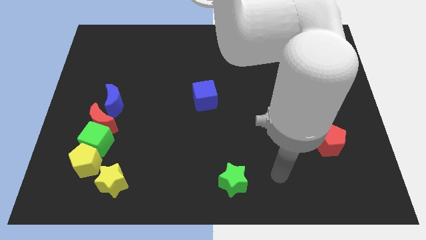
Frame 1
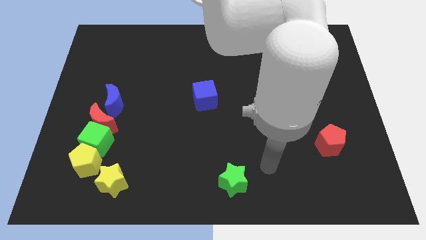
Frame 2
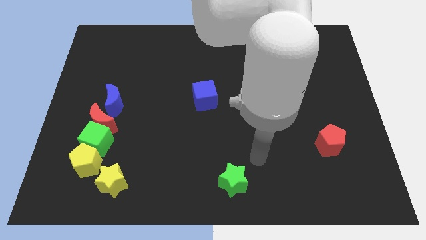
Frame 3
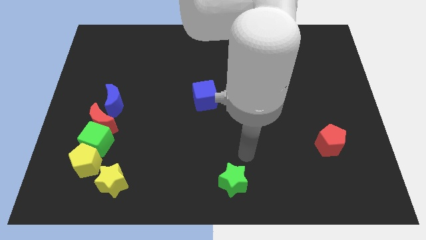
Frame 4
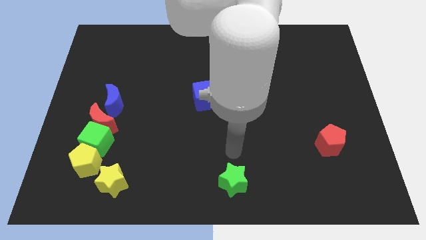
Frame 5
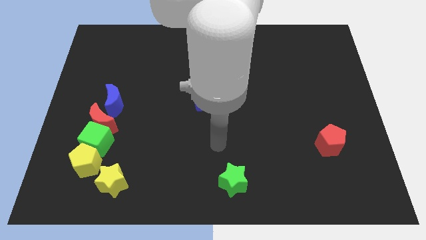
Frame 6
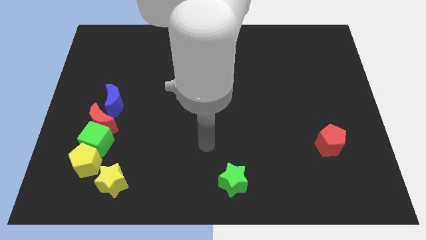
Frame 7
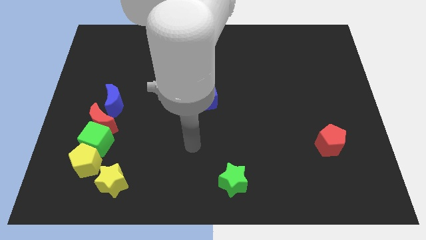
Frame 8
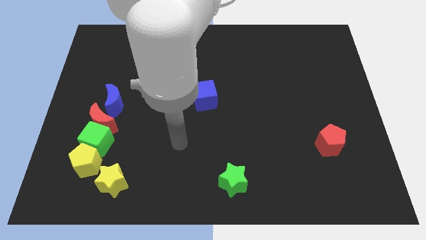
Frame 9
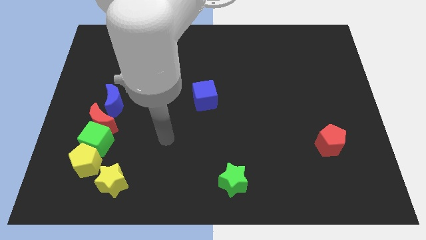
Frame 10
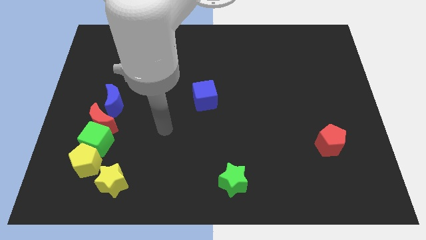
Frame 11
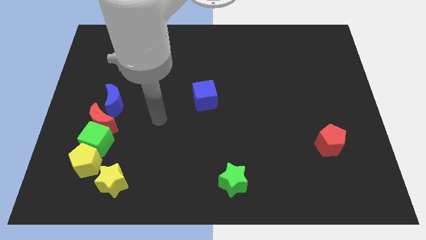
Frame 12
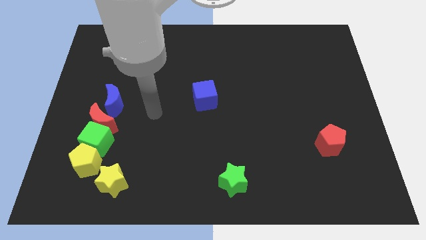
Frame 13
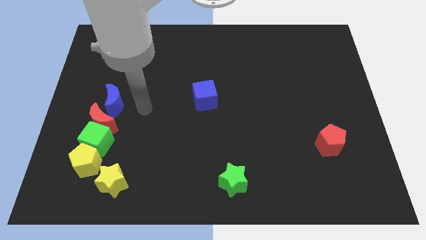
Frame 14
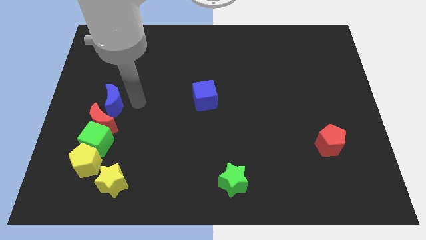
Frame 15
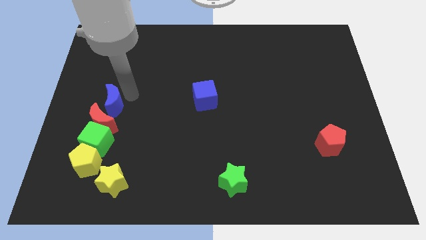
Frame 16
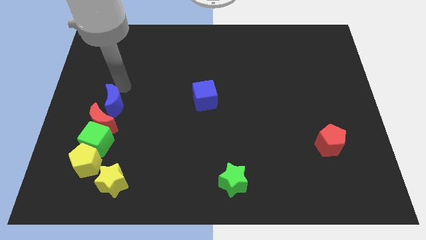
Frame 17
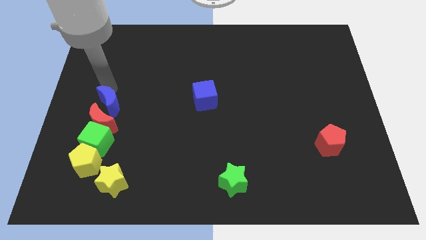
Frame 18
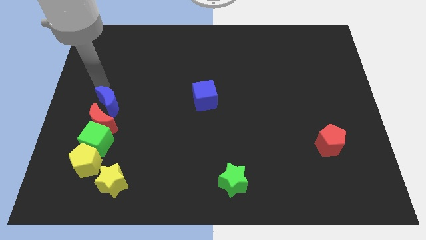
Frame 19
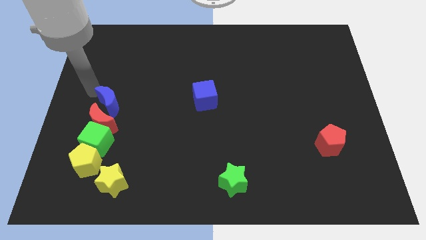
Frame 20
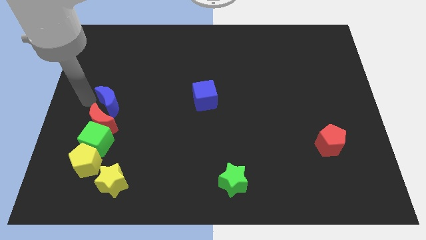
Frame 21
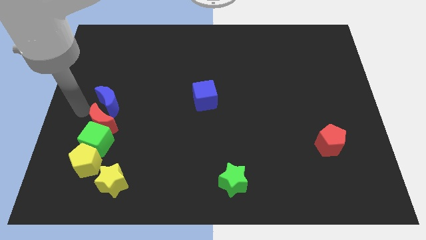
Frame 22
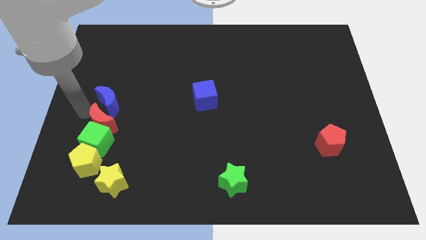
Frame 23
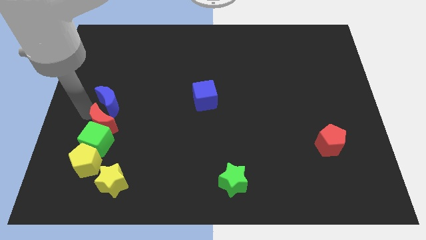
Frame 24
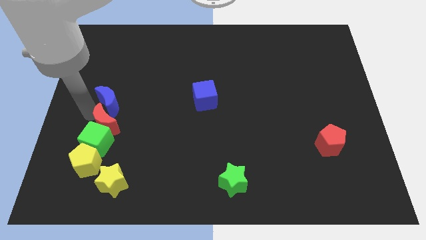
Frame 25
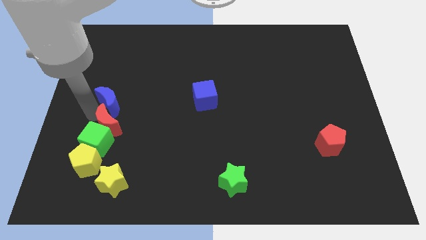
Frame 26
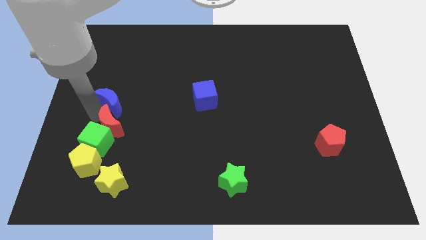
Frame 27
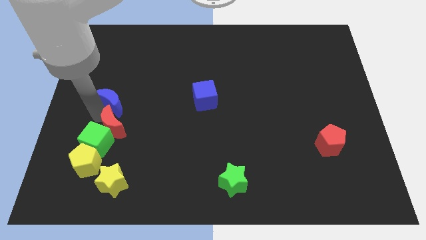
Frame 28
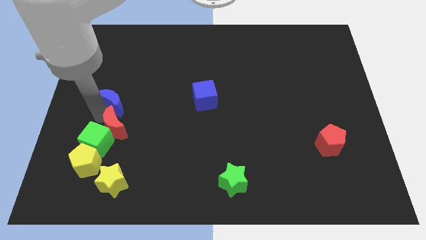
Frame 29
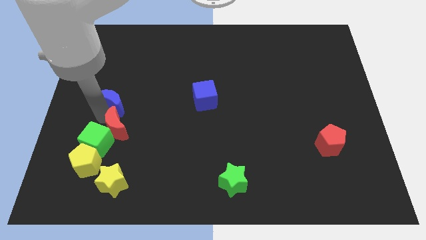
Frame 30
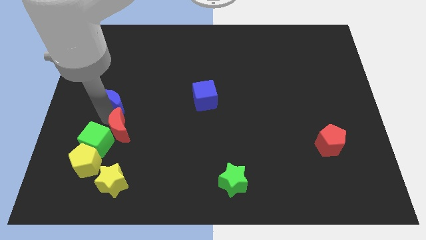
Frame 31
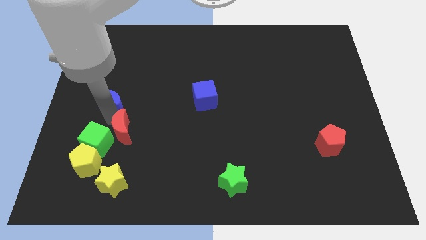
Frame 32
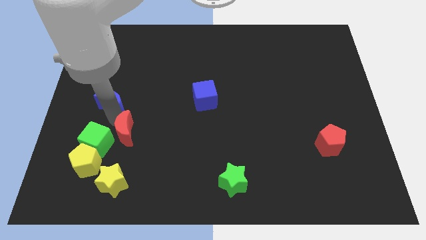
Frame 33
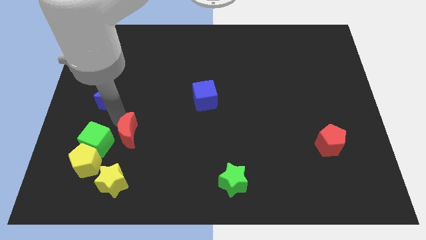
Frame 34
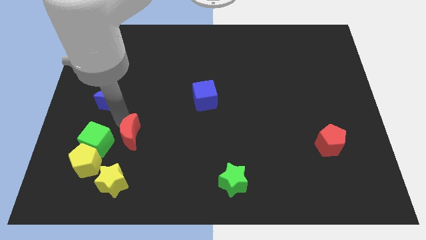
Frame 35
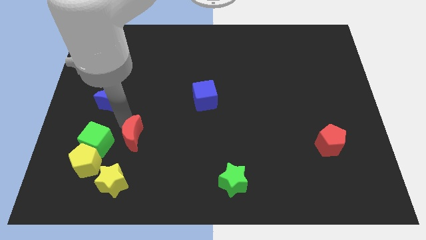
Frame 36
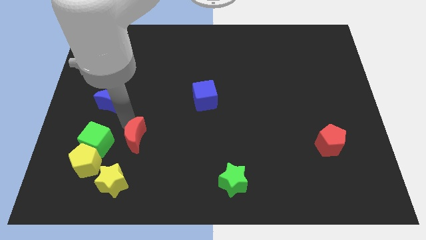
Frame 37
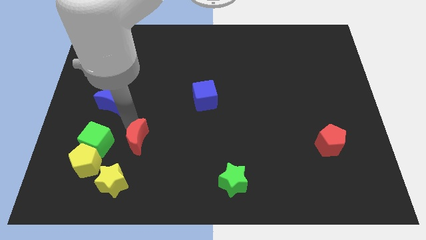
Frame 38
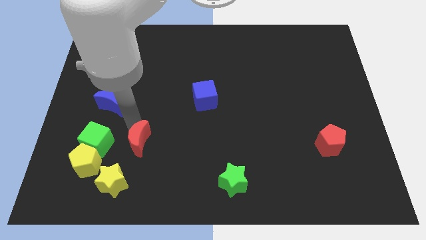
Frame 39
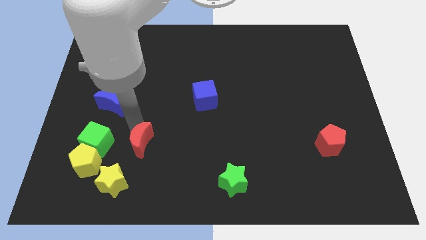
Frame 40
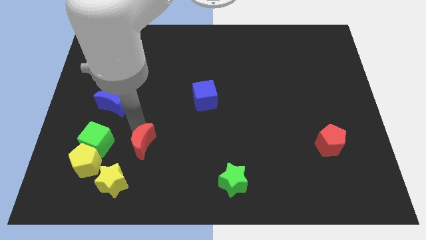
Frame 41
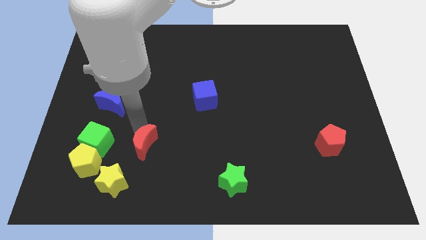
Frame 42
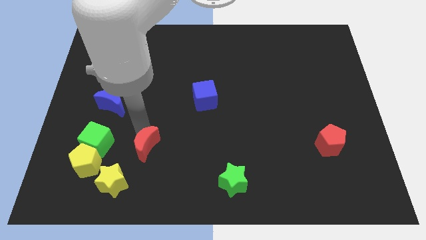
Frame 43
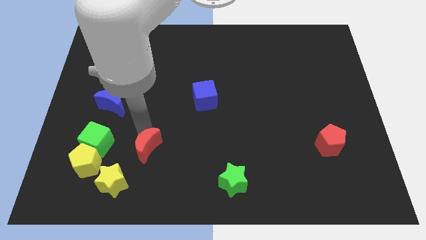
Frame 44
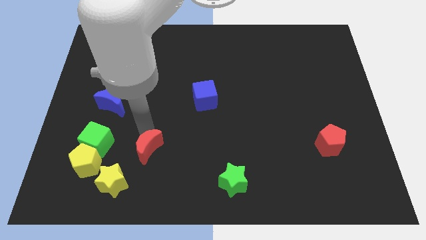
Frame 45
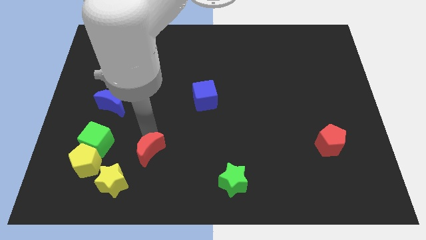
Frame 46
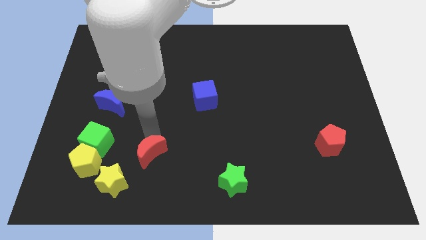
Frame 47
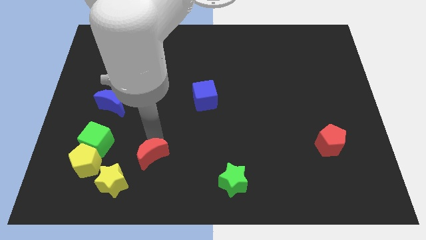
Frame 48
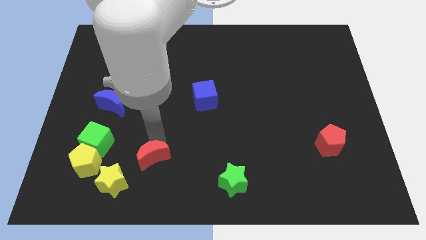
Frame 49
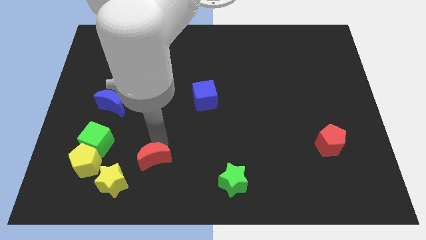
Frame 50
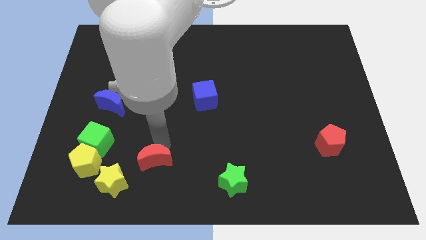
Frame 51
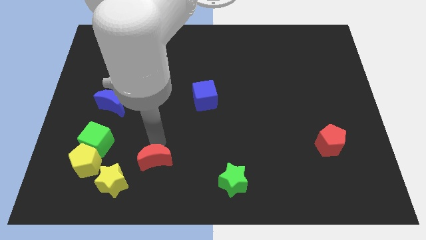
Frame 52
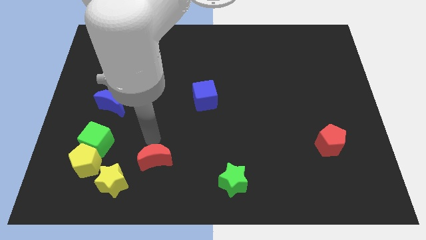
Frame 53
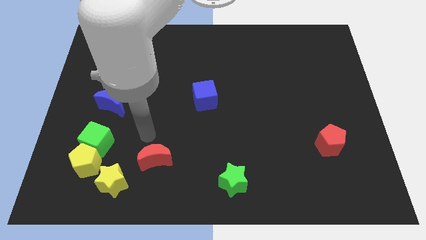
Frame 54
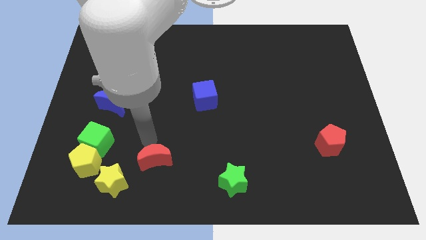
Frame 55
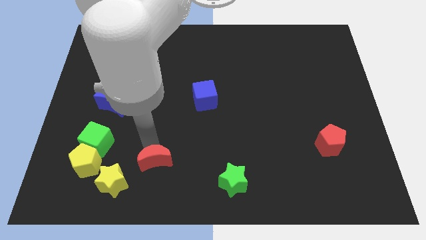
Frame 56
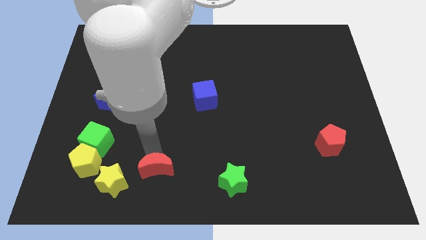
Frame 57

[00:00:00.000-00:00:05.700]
put the red moon to the right of the yellow star

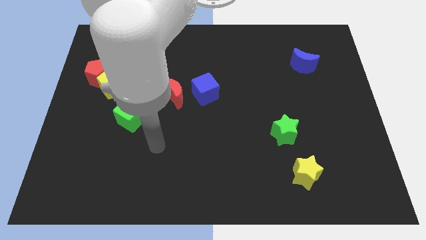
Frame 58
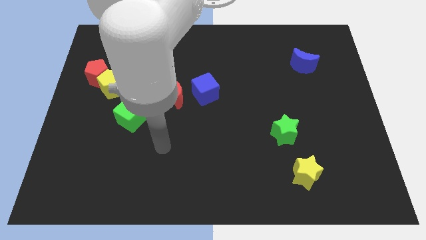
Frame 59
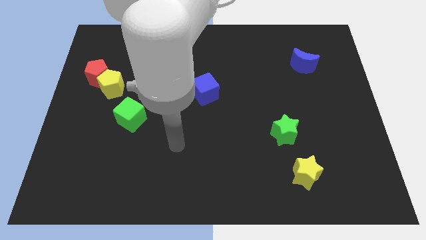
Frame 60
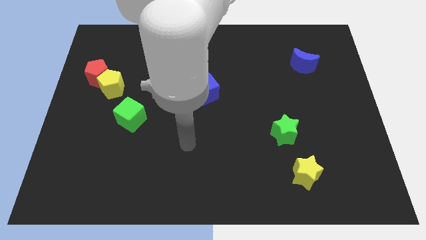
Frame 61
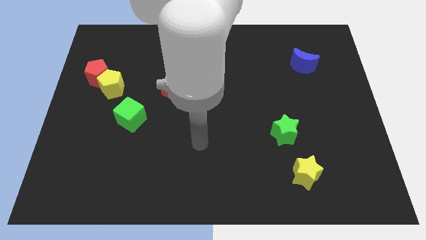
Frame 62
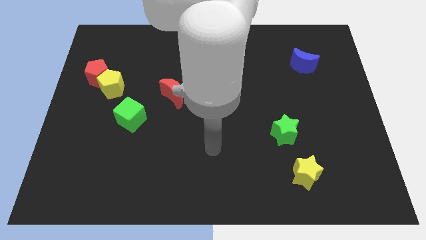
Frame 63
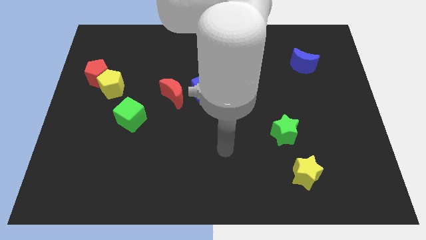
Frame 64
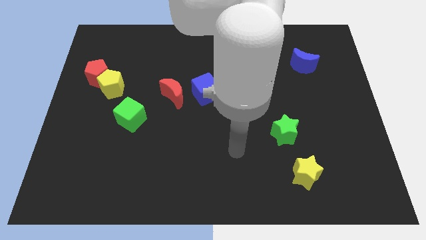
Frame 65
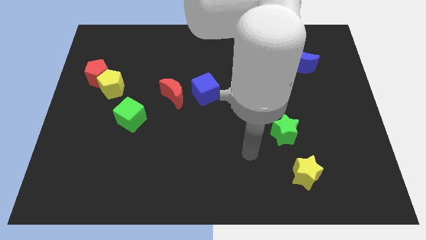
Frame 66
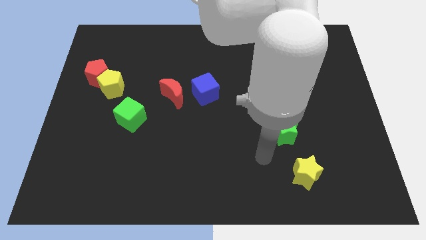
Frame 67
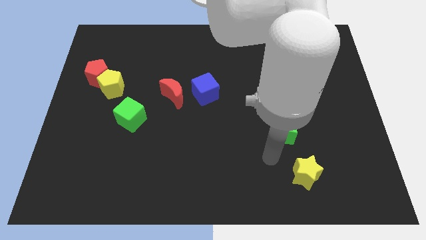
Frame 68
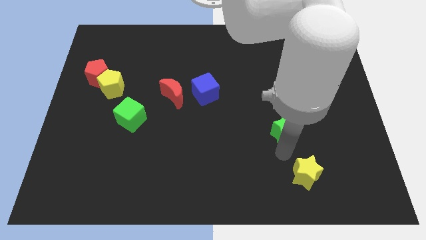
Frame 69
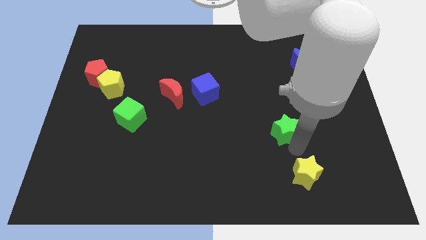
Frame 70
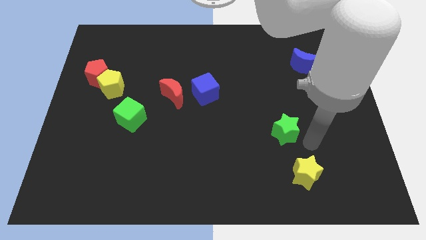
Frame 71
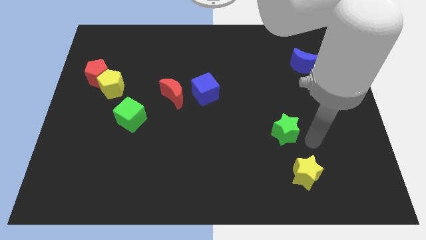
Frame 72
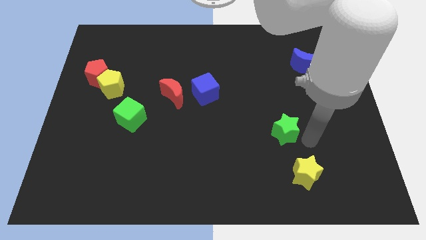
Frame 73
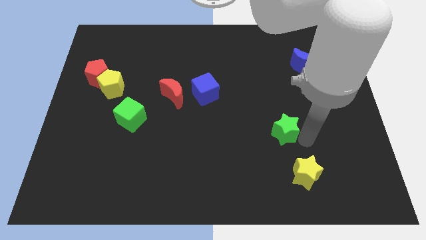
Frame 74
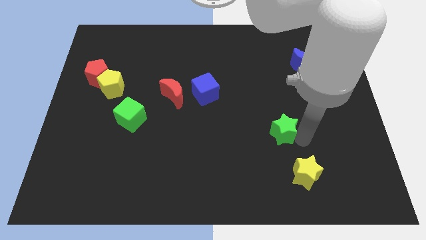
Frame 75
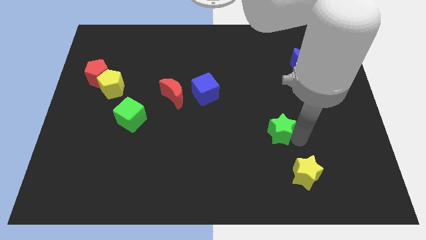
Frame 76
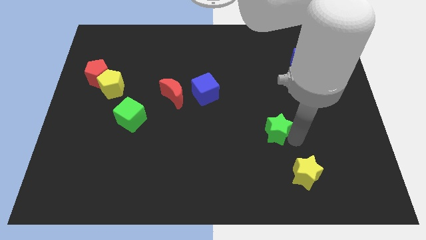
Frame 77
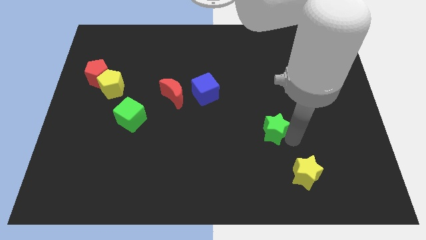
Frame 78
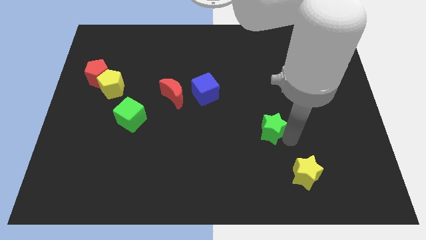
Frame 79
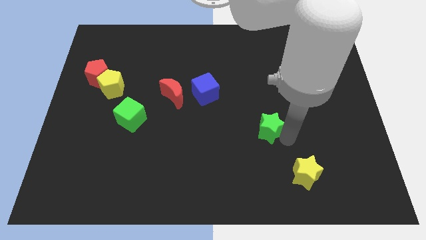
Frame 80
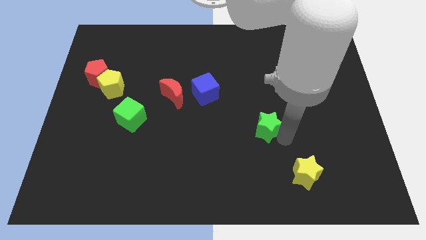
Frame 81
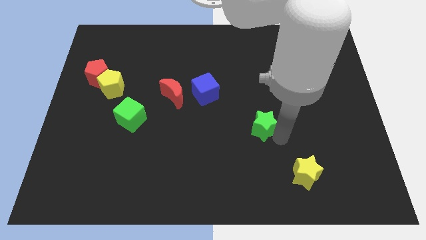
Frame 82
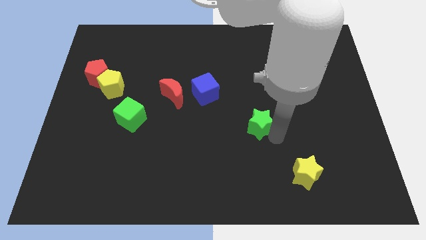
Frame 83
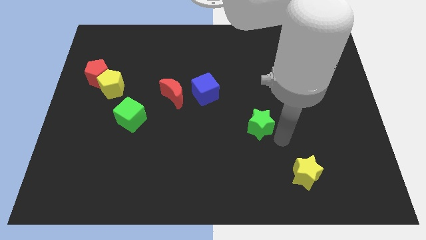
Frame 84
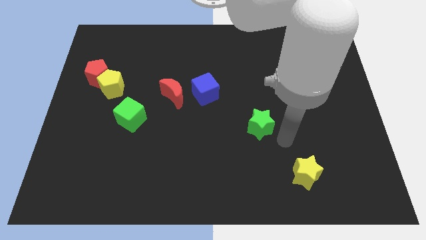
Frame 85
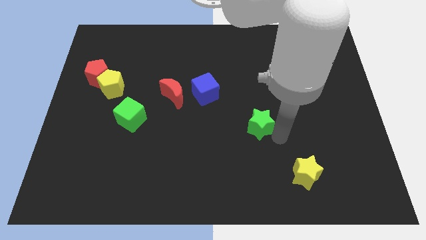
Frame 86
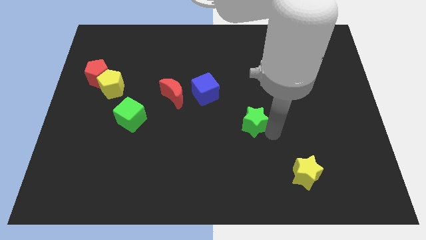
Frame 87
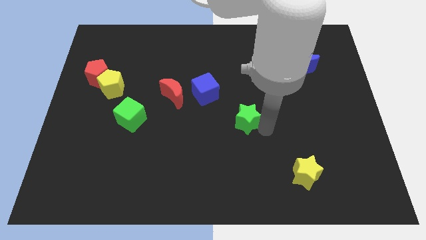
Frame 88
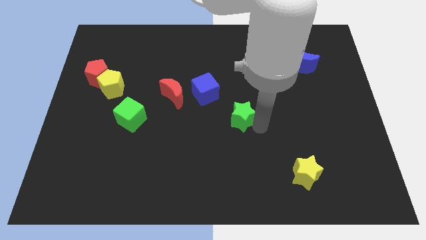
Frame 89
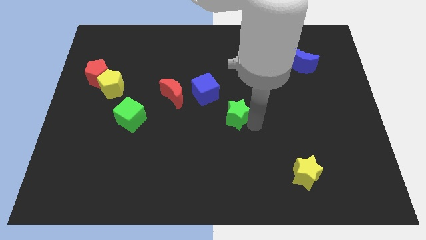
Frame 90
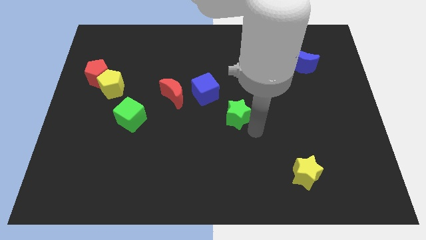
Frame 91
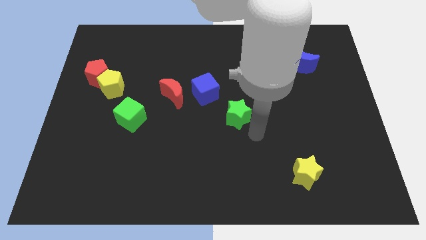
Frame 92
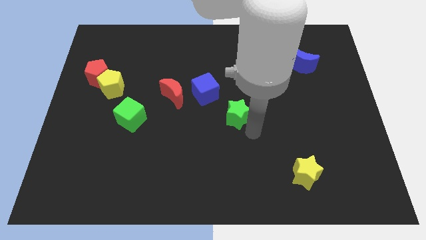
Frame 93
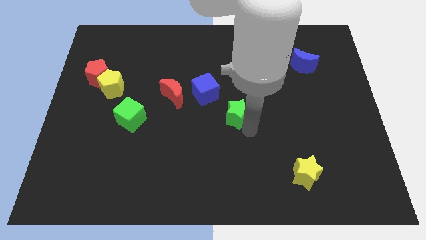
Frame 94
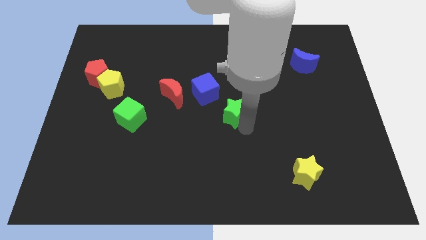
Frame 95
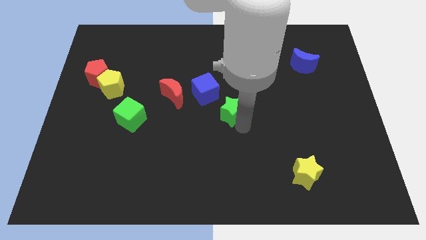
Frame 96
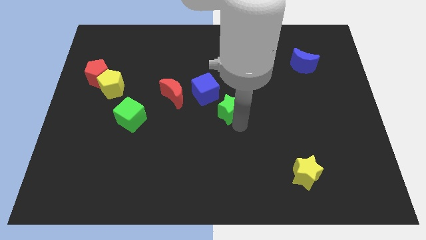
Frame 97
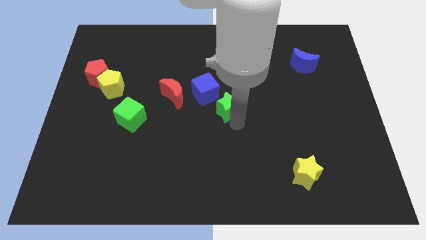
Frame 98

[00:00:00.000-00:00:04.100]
push the green star to the right side of the red moon
